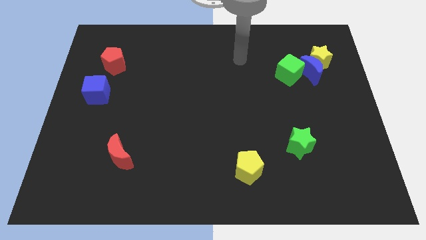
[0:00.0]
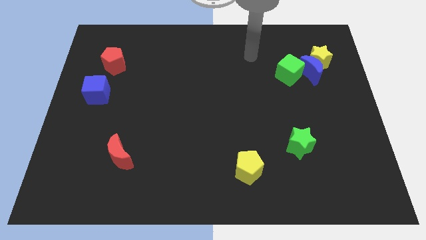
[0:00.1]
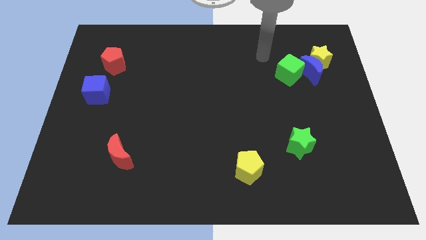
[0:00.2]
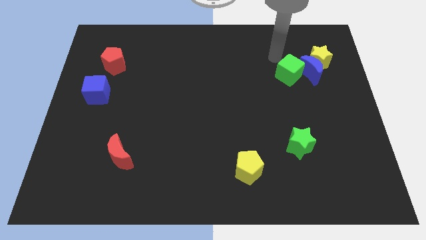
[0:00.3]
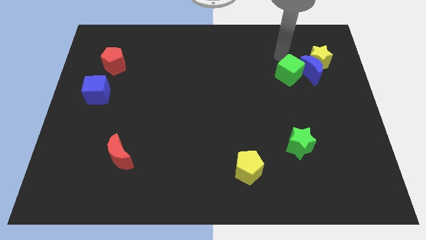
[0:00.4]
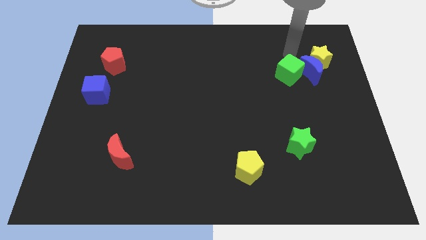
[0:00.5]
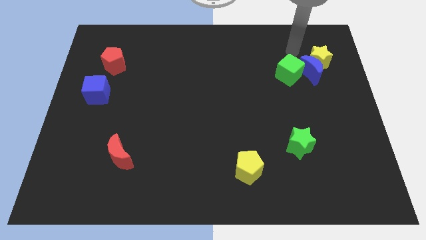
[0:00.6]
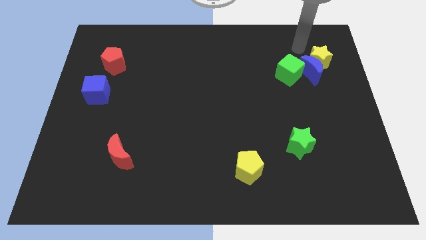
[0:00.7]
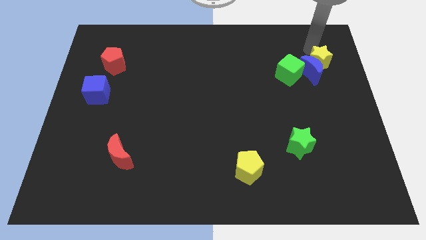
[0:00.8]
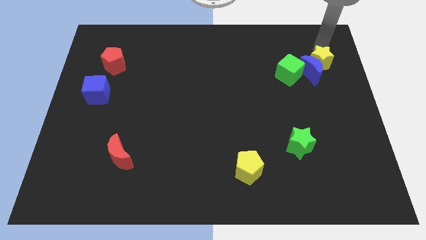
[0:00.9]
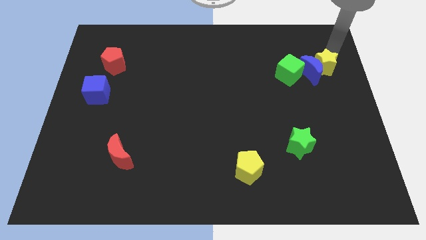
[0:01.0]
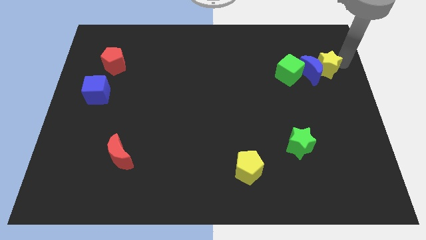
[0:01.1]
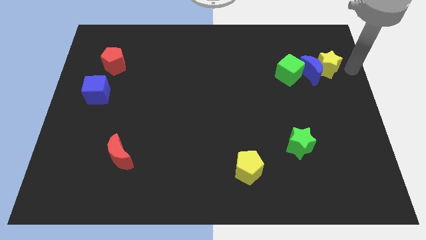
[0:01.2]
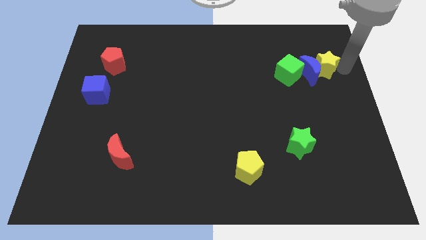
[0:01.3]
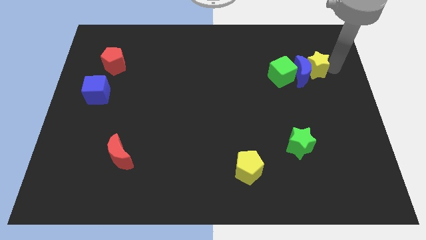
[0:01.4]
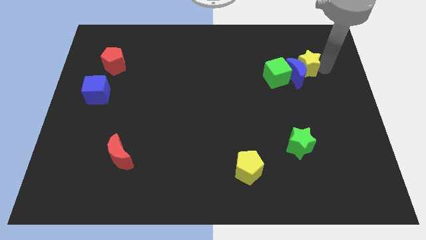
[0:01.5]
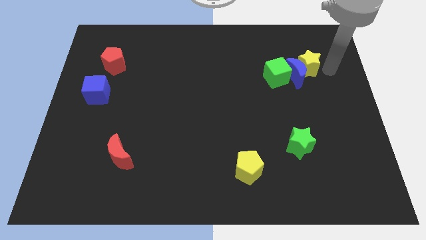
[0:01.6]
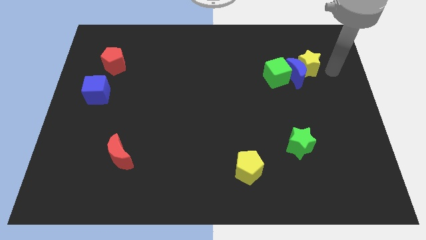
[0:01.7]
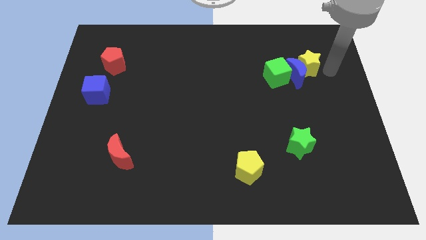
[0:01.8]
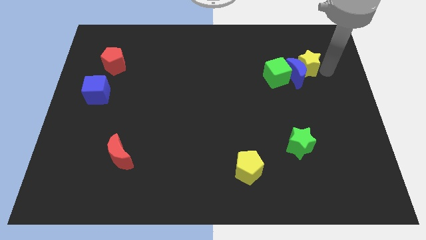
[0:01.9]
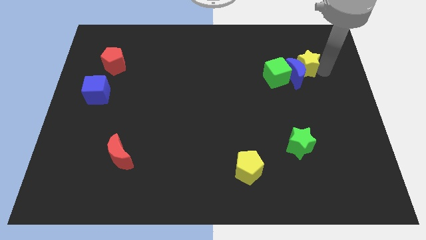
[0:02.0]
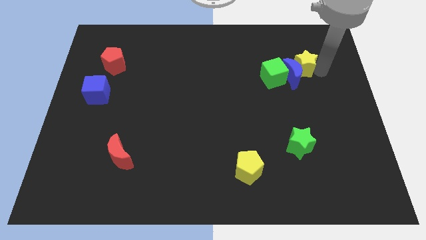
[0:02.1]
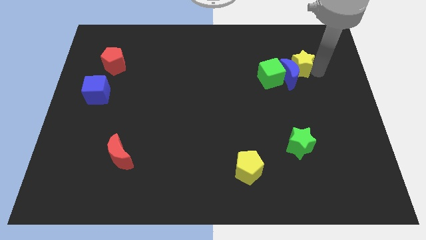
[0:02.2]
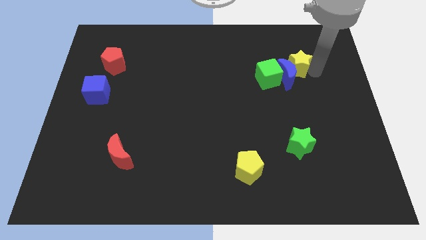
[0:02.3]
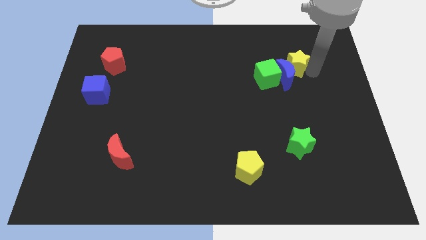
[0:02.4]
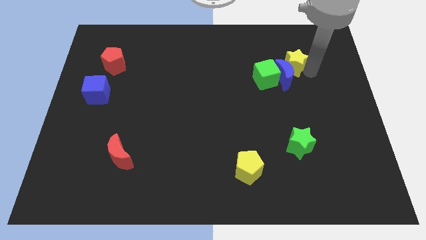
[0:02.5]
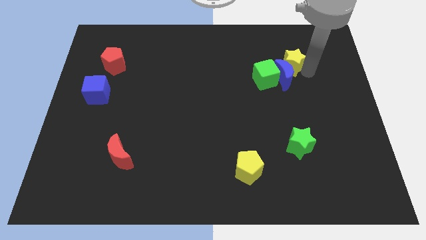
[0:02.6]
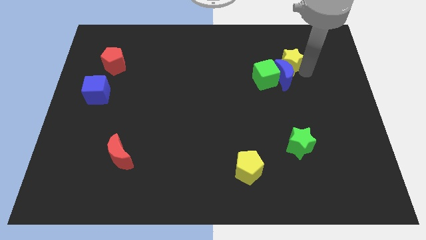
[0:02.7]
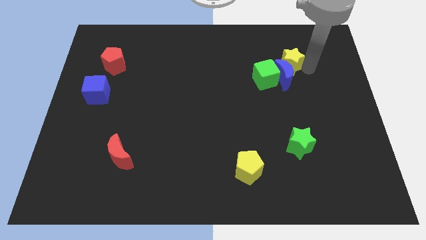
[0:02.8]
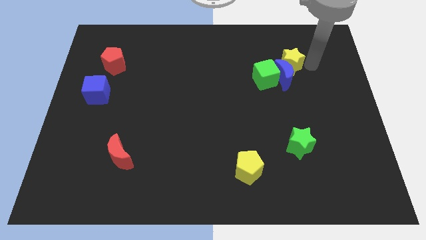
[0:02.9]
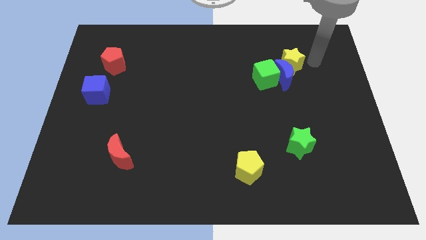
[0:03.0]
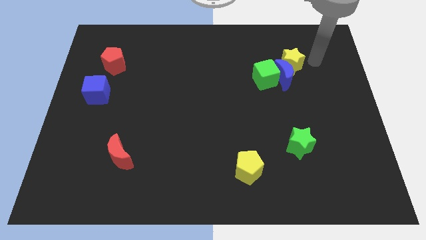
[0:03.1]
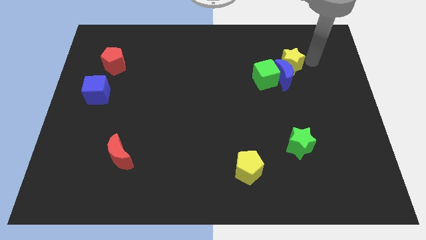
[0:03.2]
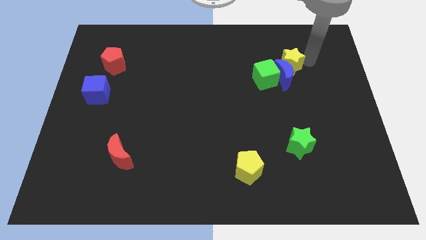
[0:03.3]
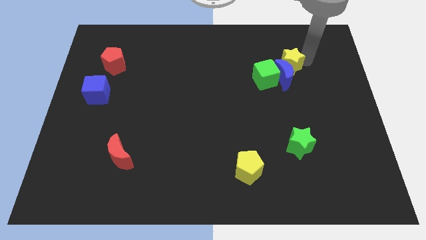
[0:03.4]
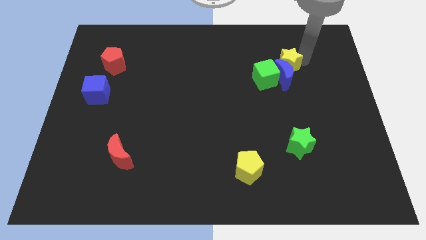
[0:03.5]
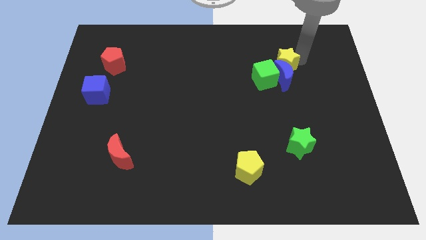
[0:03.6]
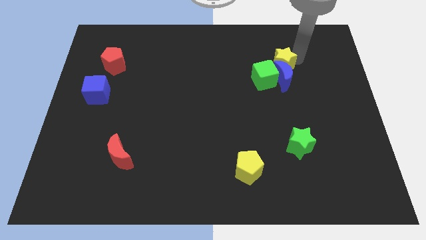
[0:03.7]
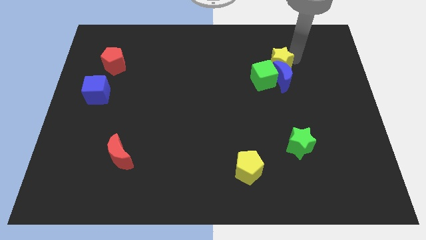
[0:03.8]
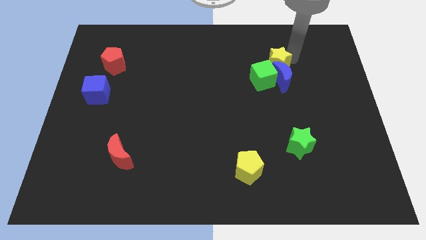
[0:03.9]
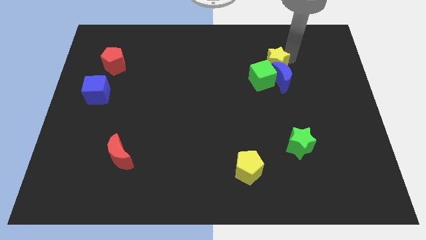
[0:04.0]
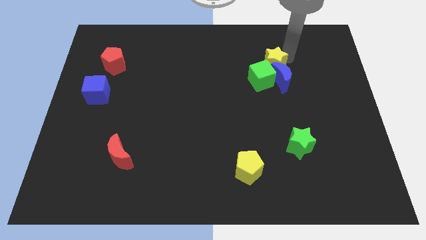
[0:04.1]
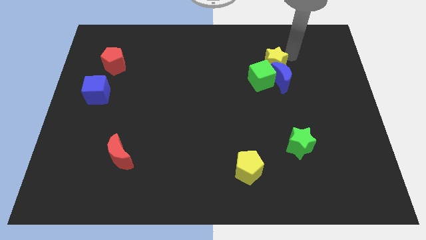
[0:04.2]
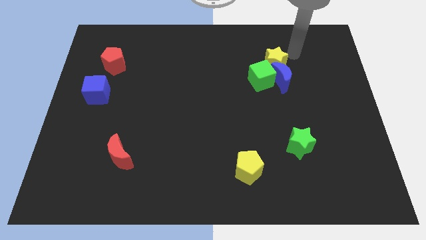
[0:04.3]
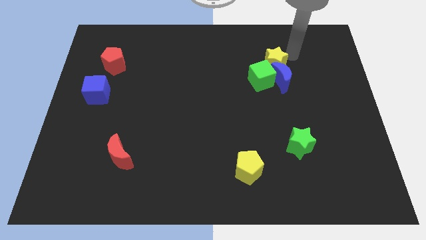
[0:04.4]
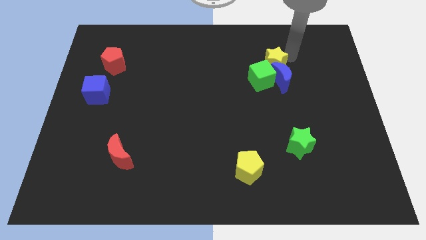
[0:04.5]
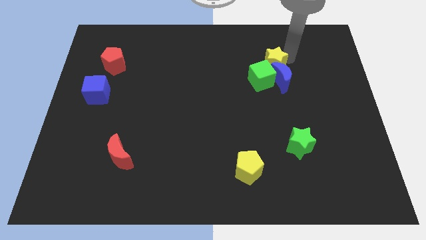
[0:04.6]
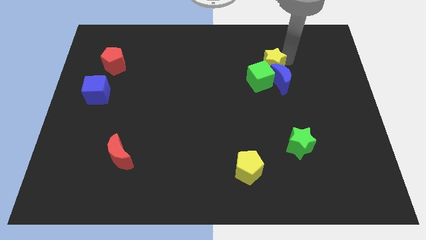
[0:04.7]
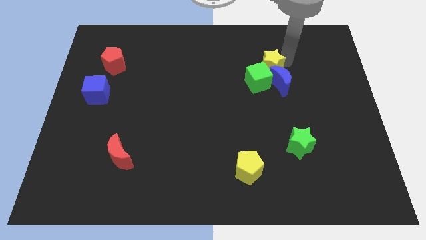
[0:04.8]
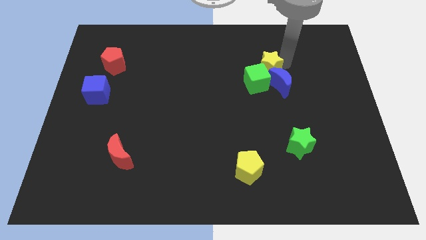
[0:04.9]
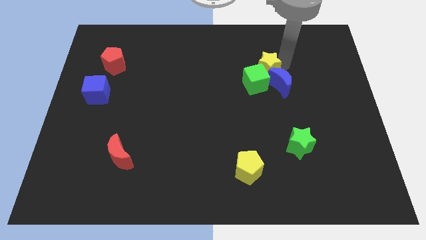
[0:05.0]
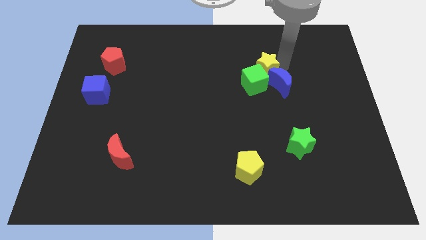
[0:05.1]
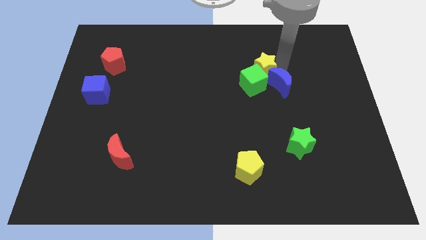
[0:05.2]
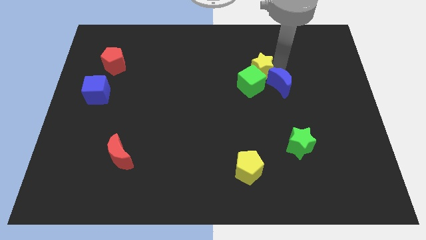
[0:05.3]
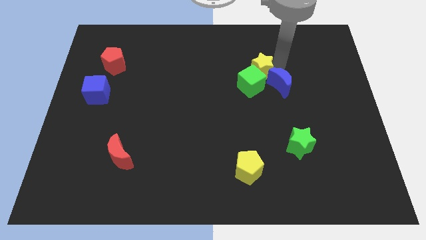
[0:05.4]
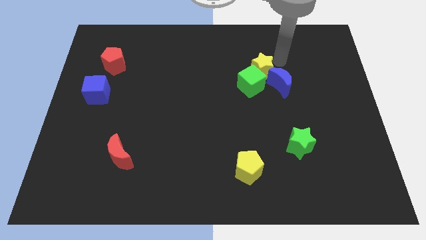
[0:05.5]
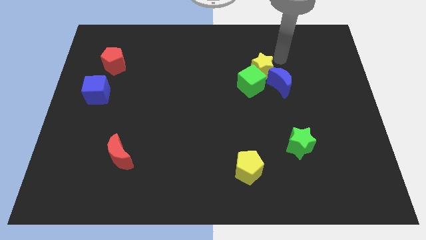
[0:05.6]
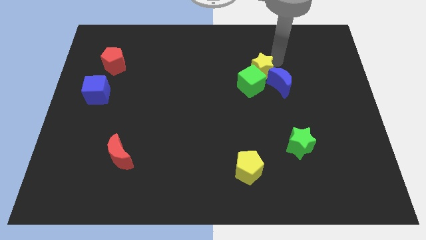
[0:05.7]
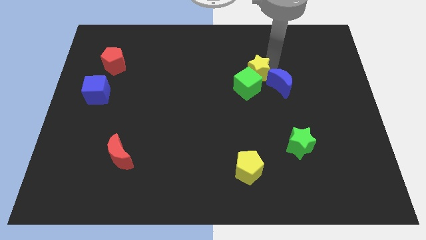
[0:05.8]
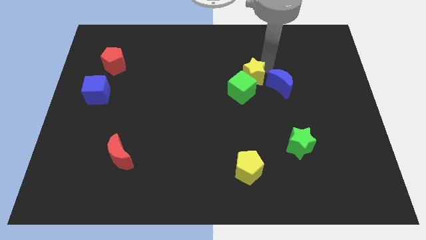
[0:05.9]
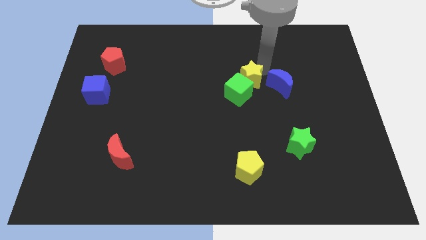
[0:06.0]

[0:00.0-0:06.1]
slide the yellow star to the center of the board

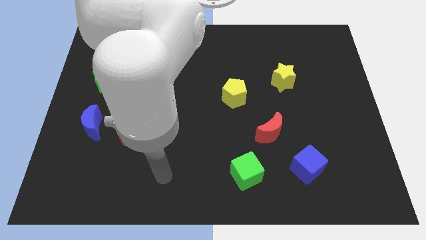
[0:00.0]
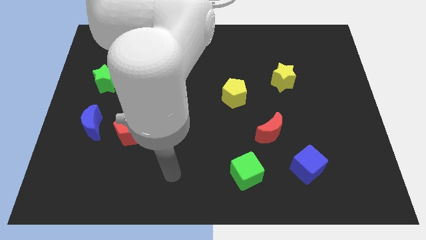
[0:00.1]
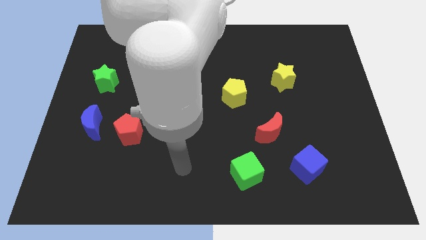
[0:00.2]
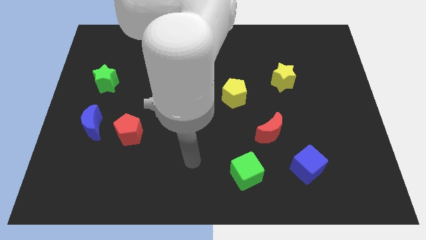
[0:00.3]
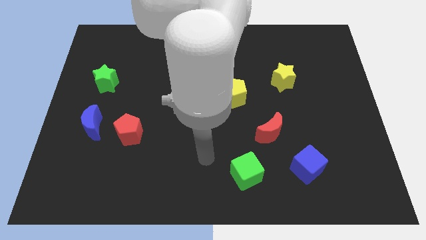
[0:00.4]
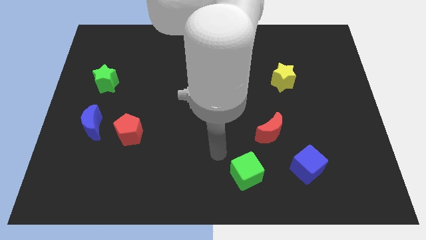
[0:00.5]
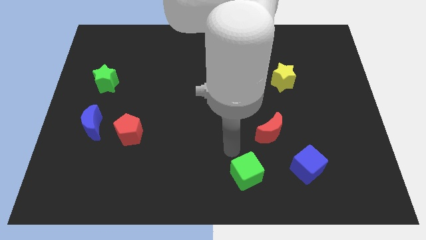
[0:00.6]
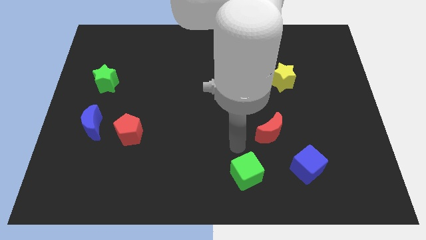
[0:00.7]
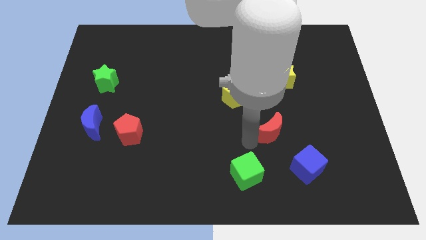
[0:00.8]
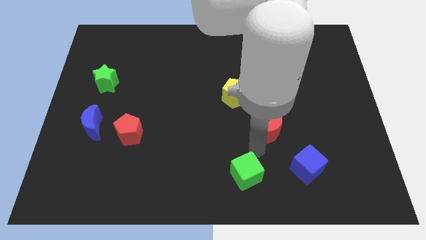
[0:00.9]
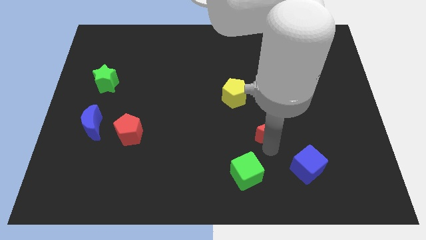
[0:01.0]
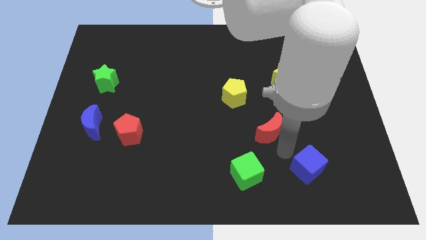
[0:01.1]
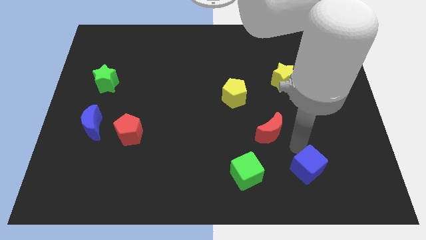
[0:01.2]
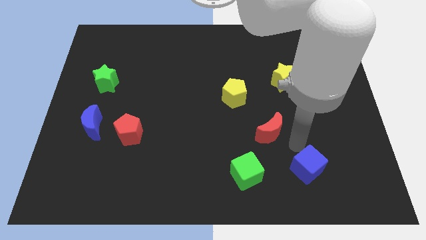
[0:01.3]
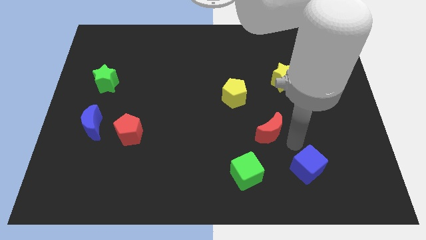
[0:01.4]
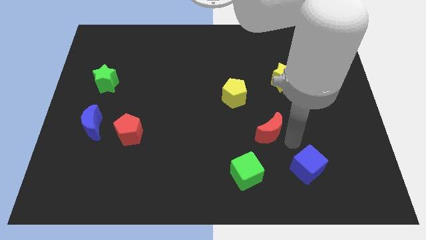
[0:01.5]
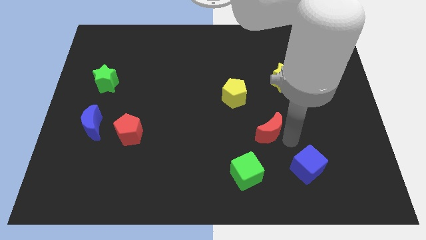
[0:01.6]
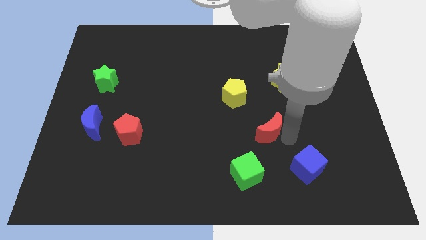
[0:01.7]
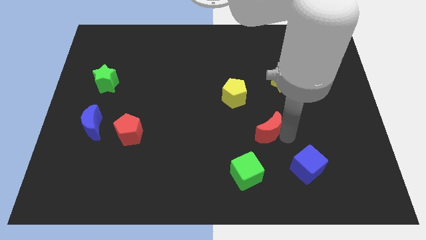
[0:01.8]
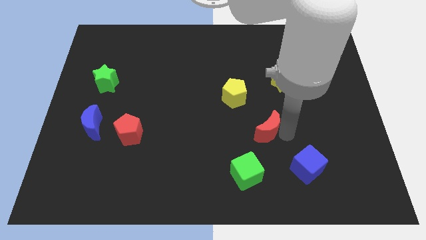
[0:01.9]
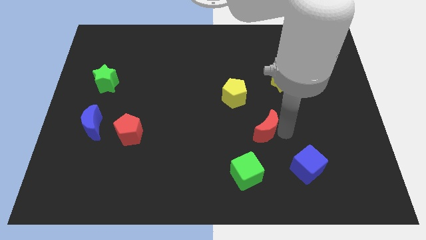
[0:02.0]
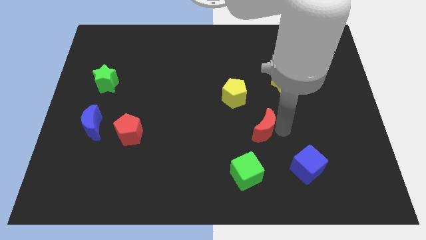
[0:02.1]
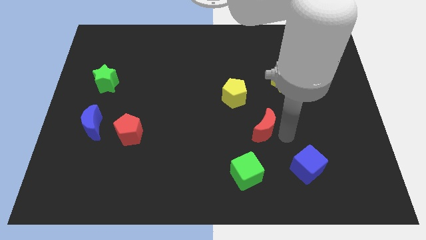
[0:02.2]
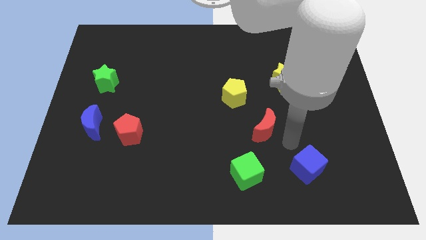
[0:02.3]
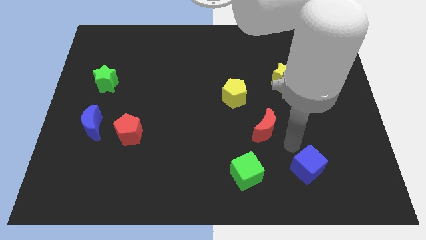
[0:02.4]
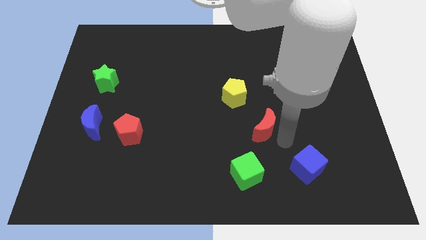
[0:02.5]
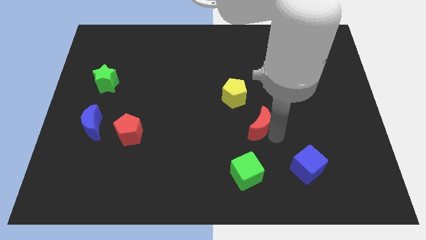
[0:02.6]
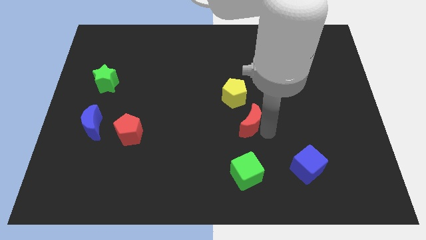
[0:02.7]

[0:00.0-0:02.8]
move the red moon to the center
